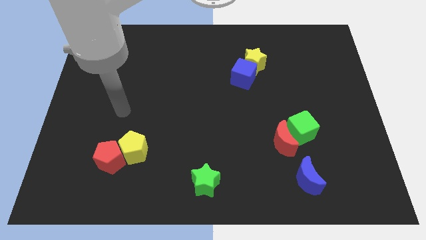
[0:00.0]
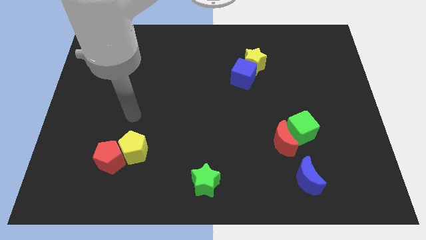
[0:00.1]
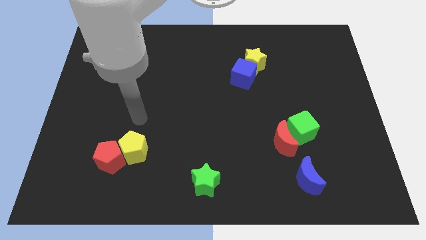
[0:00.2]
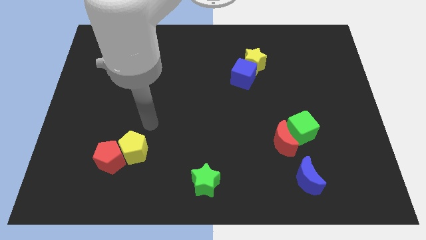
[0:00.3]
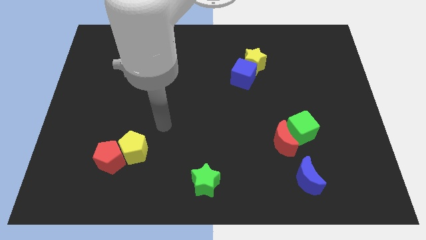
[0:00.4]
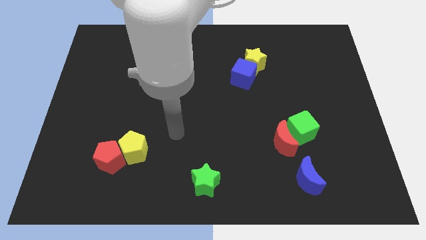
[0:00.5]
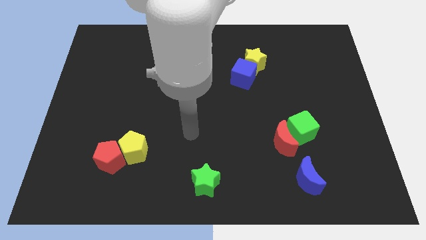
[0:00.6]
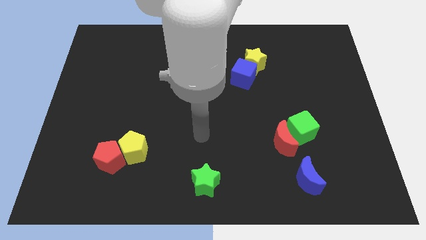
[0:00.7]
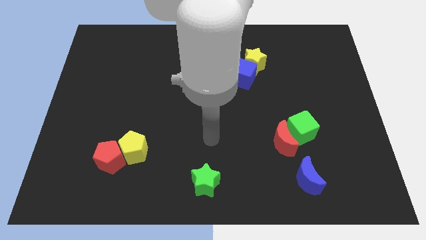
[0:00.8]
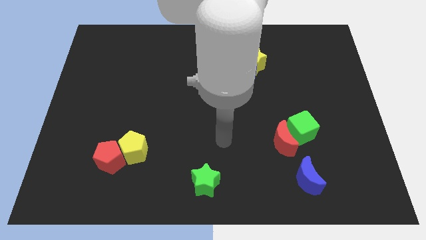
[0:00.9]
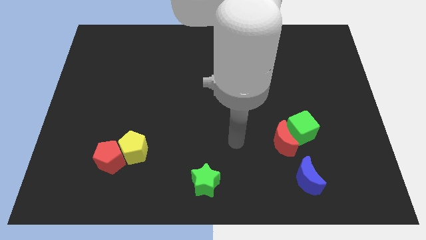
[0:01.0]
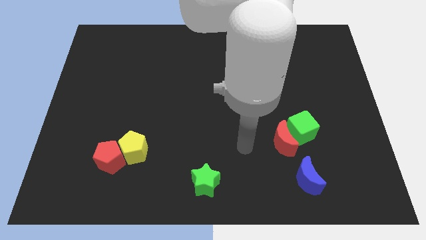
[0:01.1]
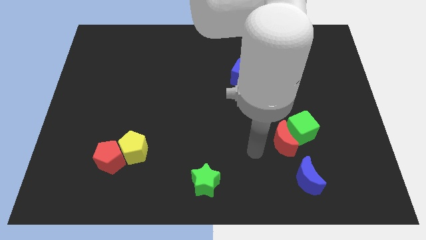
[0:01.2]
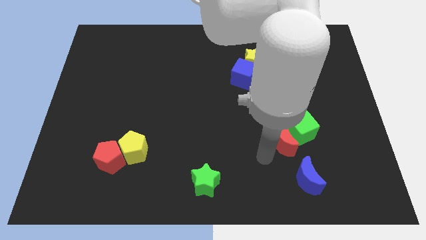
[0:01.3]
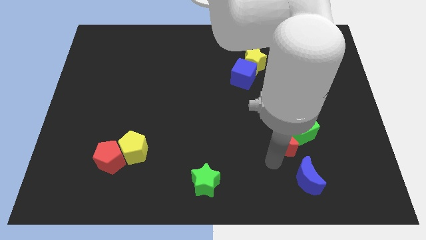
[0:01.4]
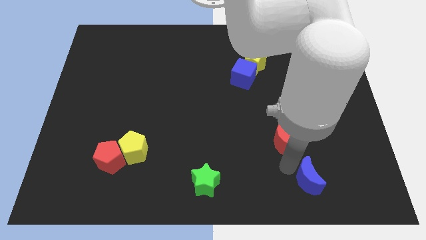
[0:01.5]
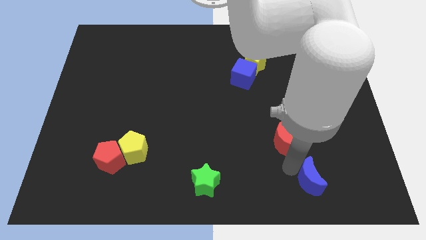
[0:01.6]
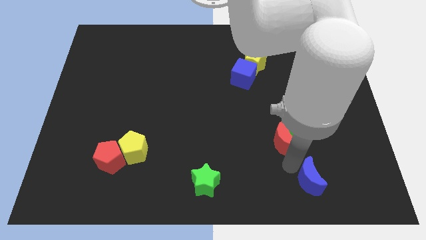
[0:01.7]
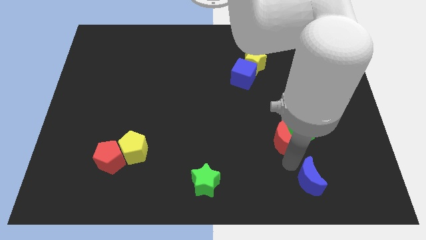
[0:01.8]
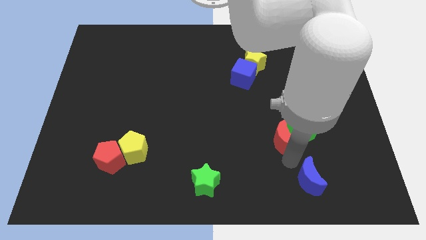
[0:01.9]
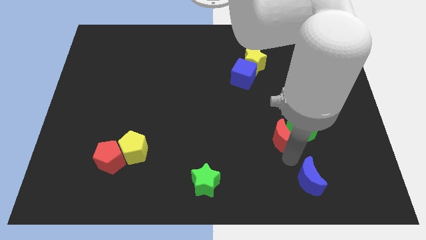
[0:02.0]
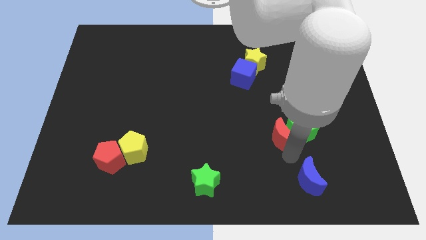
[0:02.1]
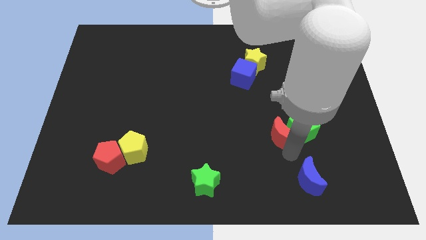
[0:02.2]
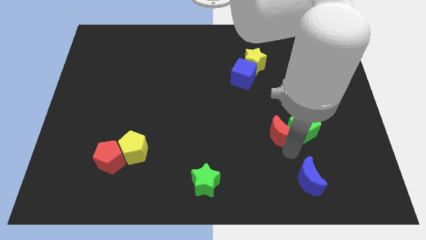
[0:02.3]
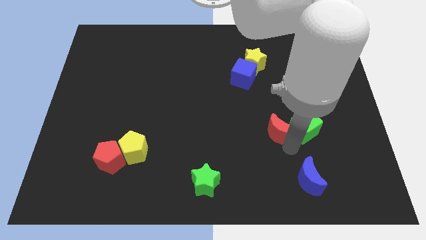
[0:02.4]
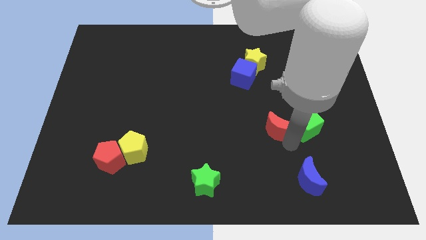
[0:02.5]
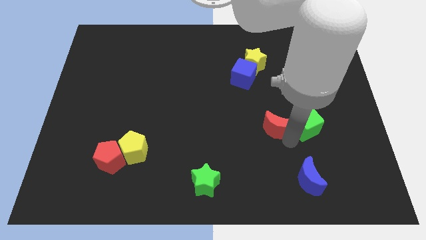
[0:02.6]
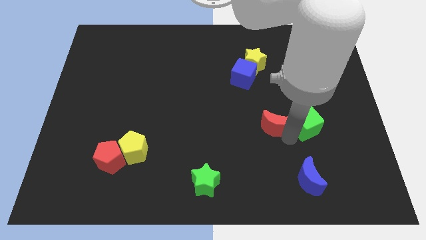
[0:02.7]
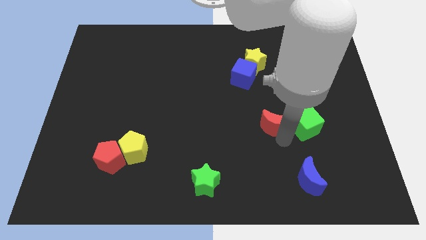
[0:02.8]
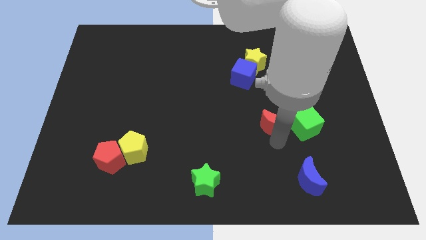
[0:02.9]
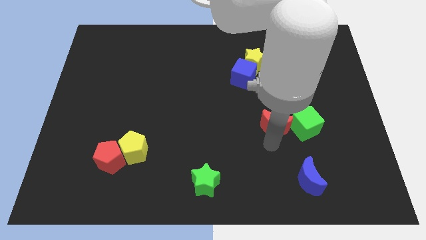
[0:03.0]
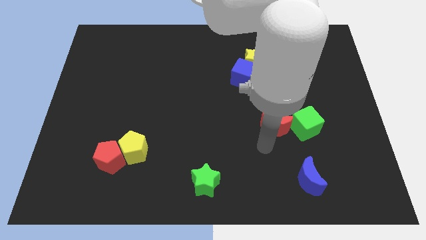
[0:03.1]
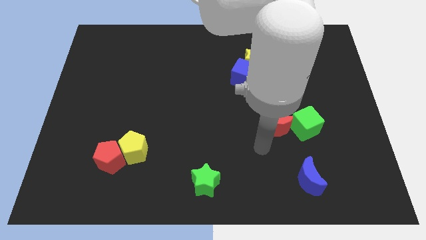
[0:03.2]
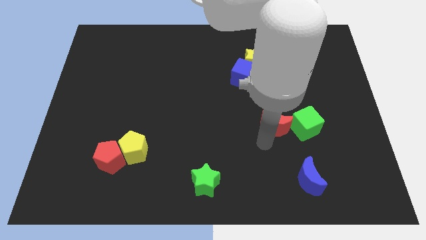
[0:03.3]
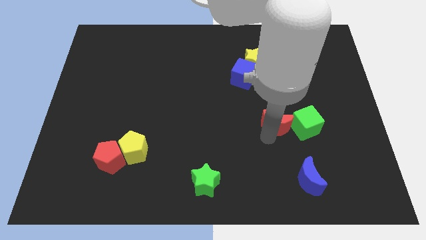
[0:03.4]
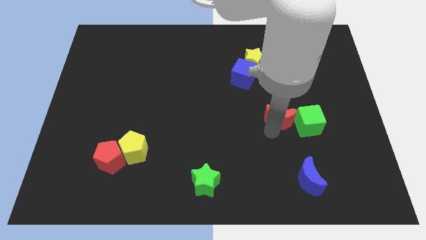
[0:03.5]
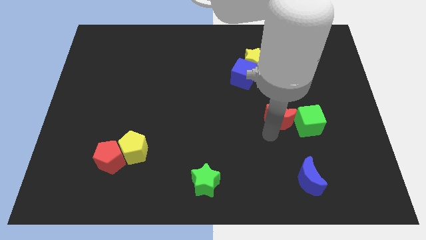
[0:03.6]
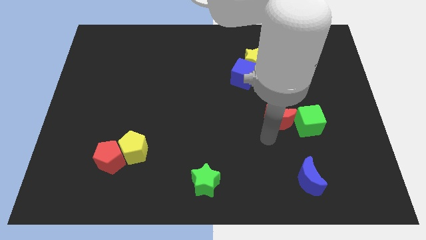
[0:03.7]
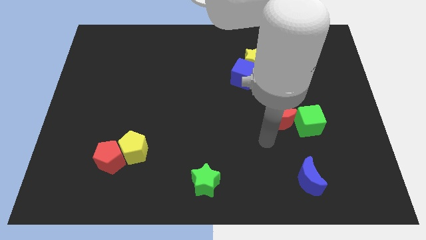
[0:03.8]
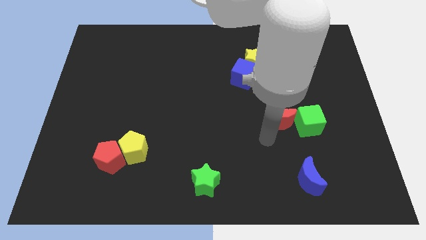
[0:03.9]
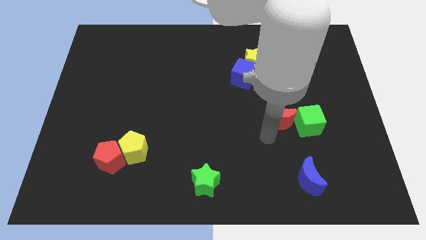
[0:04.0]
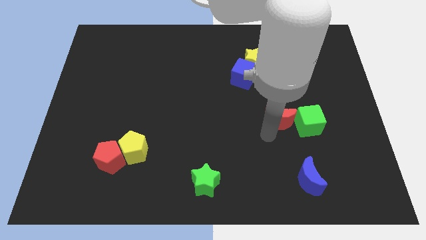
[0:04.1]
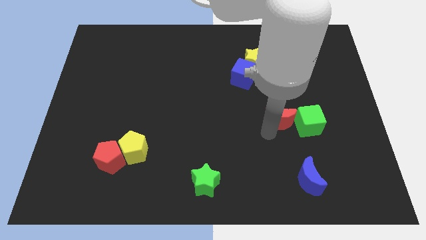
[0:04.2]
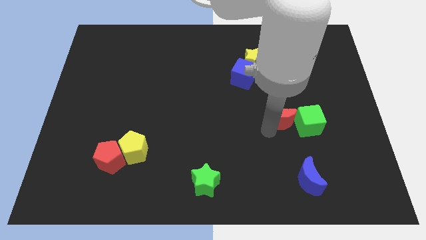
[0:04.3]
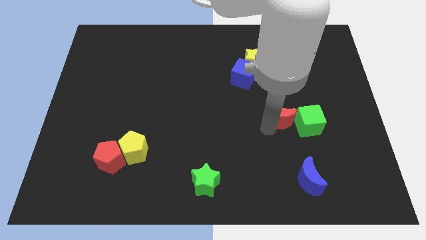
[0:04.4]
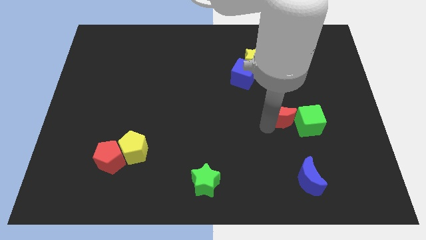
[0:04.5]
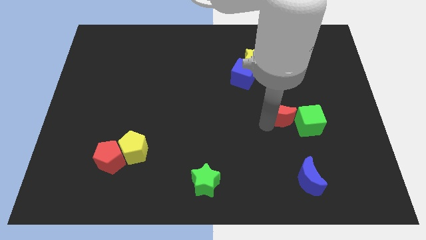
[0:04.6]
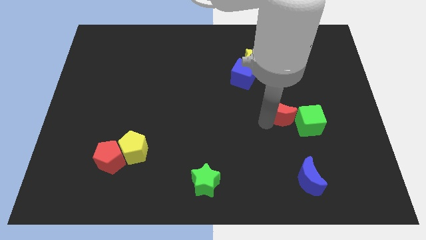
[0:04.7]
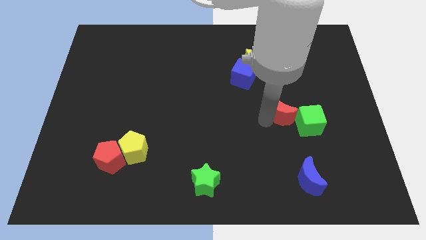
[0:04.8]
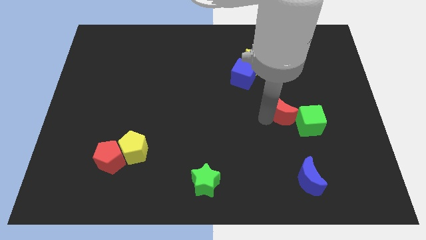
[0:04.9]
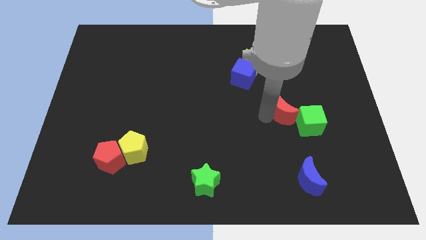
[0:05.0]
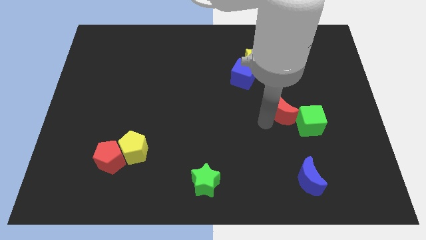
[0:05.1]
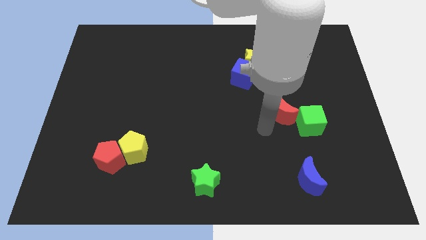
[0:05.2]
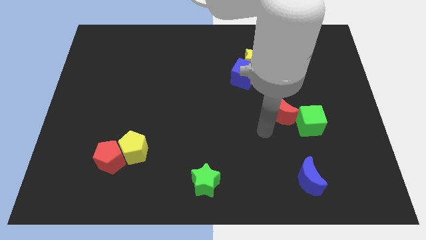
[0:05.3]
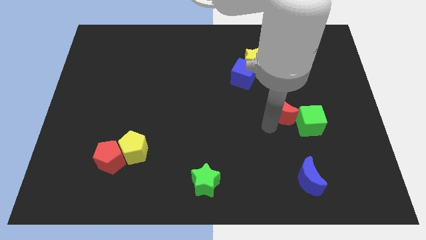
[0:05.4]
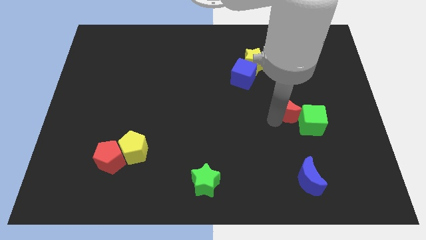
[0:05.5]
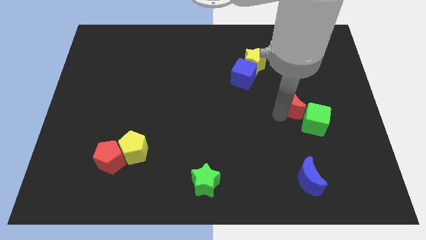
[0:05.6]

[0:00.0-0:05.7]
put the red moon above the green cube

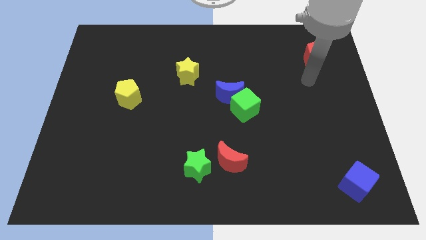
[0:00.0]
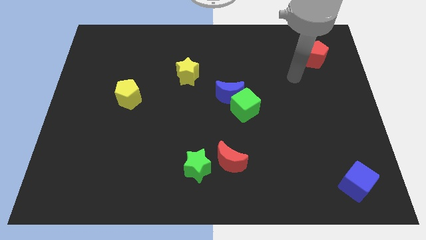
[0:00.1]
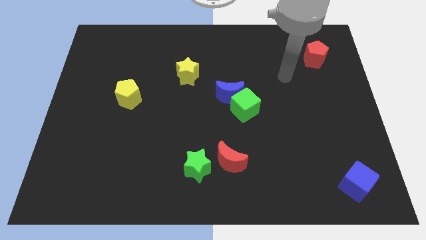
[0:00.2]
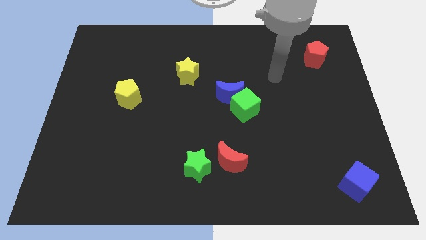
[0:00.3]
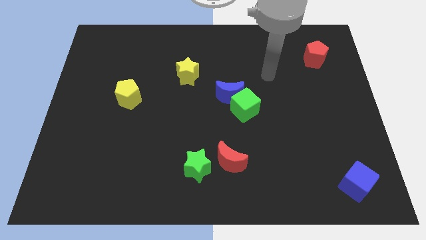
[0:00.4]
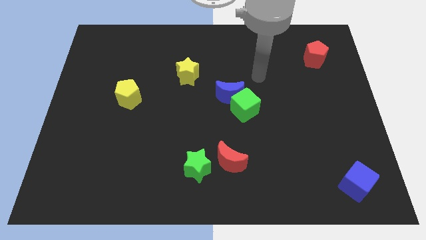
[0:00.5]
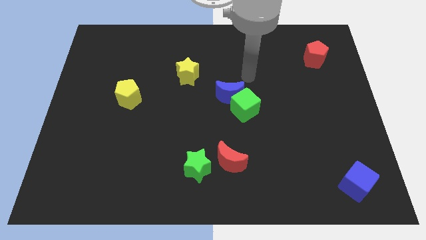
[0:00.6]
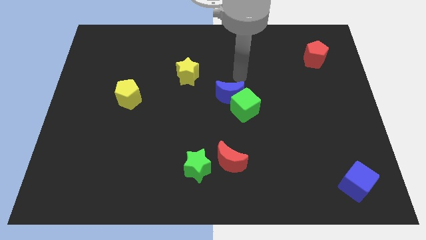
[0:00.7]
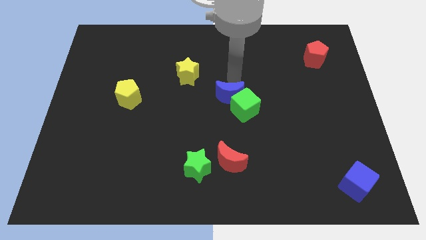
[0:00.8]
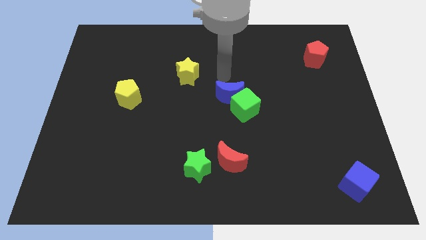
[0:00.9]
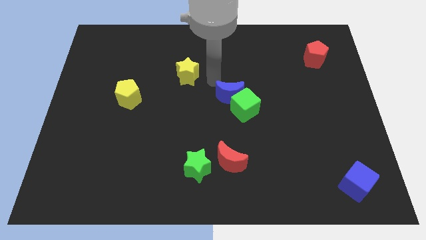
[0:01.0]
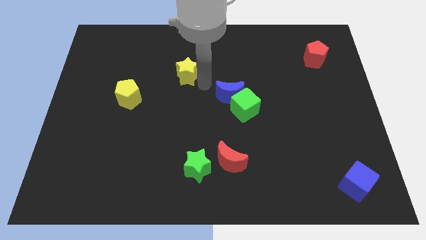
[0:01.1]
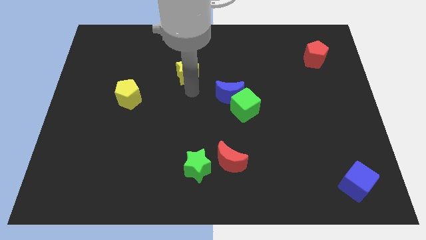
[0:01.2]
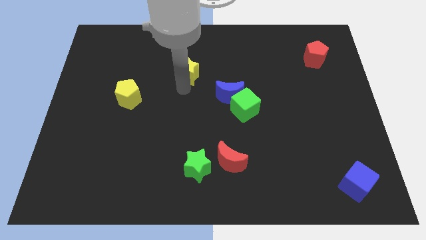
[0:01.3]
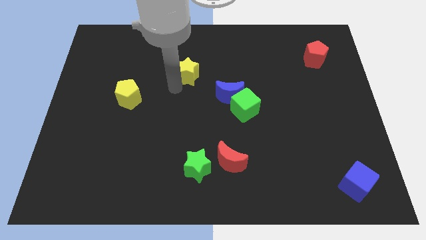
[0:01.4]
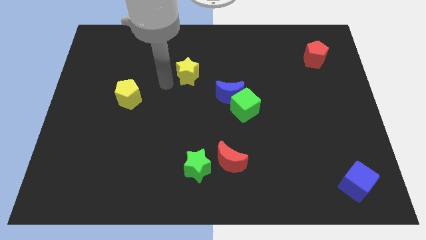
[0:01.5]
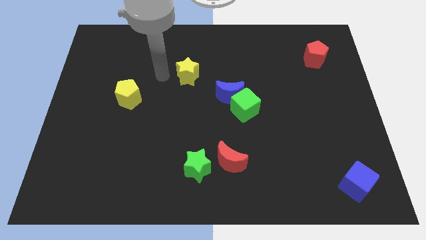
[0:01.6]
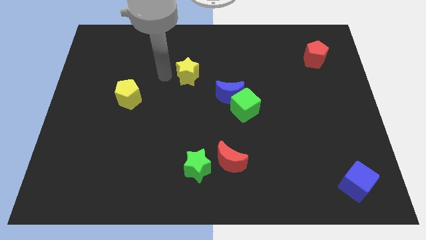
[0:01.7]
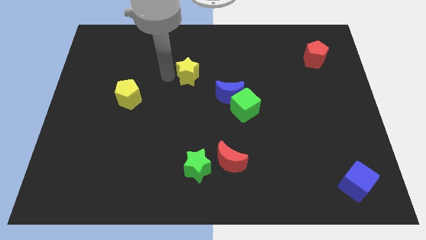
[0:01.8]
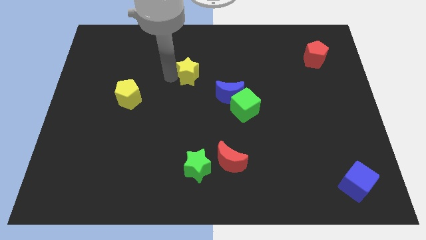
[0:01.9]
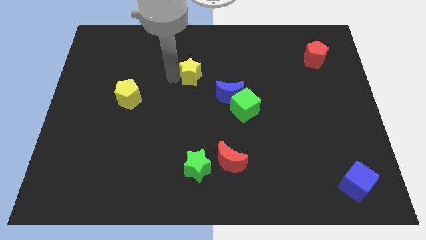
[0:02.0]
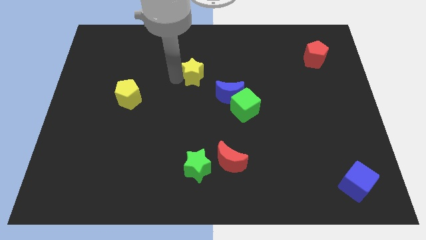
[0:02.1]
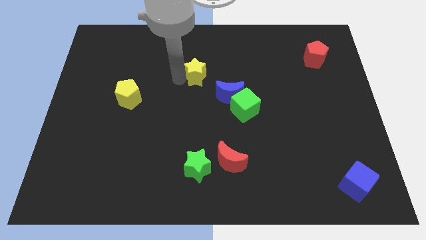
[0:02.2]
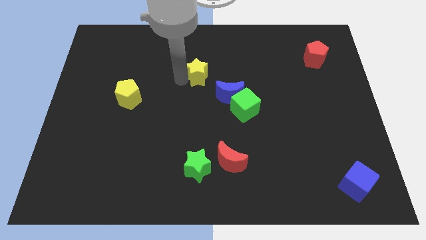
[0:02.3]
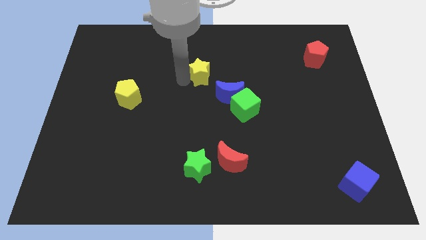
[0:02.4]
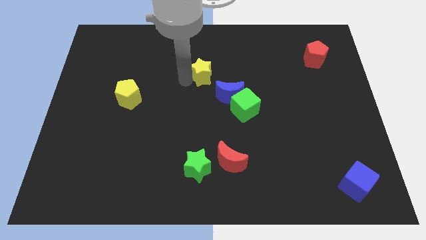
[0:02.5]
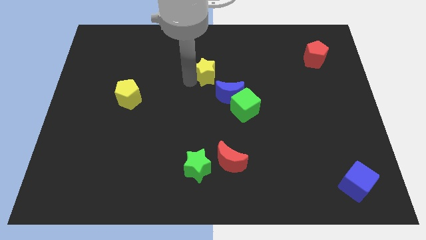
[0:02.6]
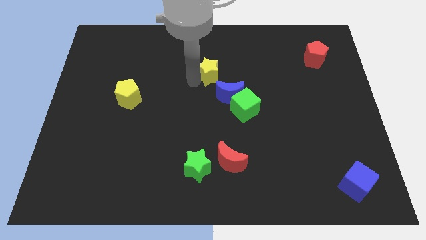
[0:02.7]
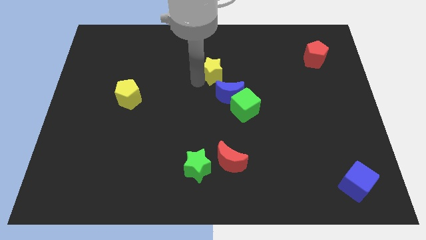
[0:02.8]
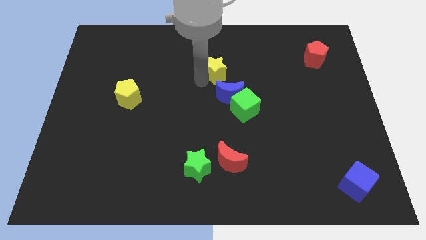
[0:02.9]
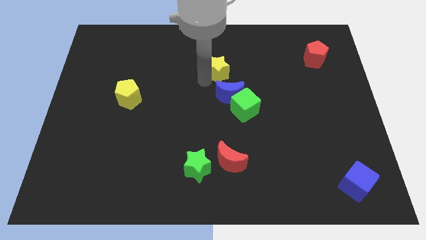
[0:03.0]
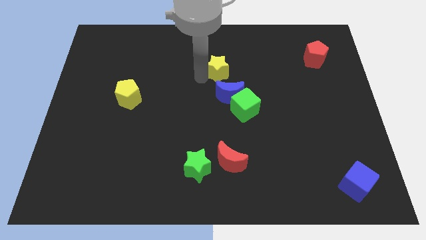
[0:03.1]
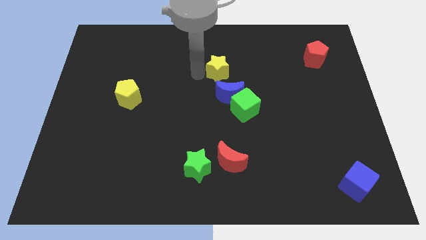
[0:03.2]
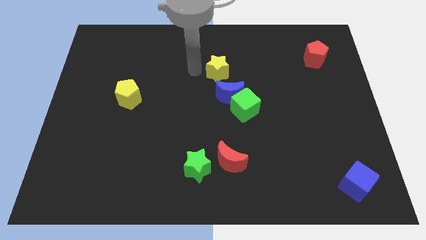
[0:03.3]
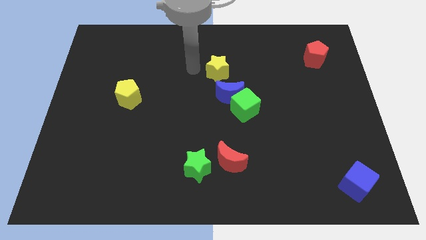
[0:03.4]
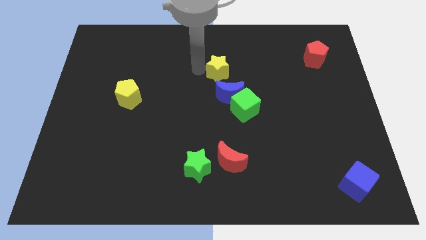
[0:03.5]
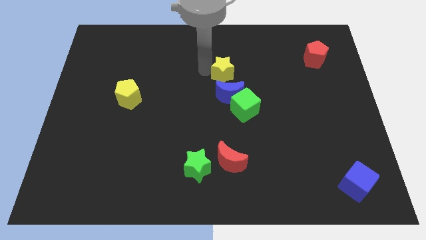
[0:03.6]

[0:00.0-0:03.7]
slide the yellow star to the top of the green cube
